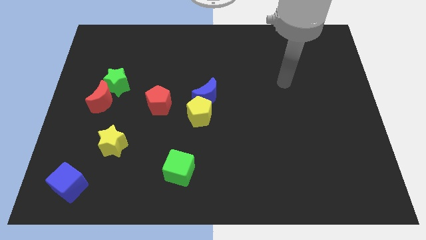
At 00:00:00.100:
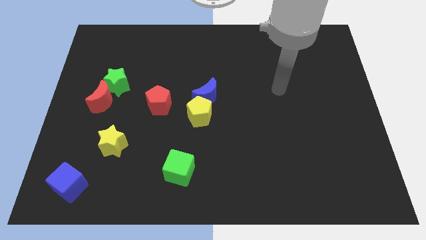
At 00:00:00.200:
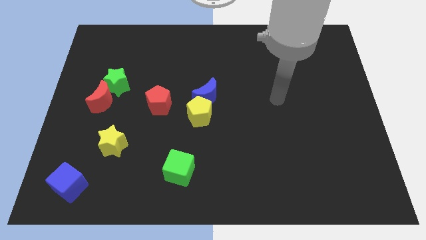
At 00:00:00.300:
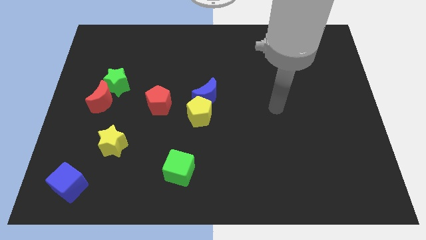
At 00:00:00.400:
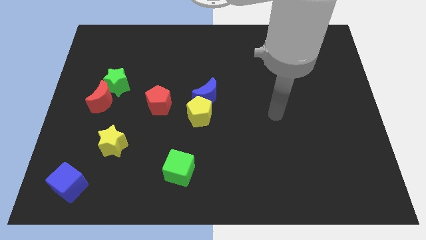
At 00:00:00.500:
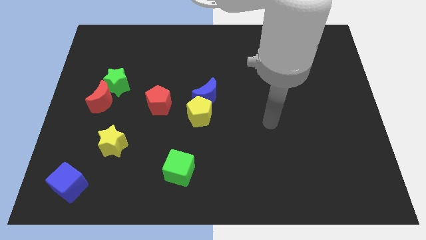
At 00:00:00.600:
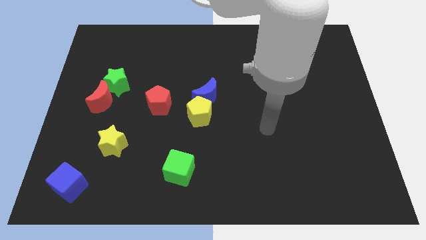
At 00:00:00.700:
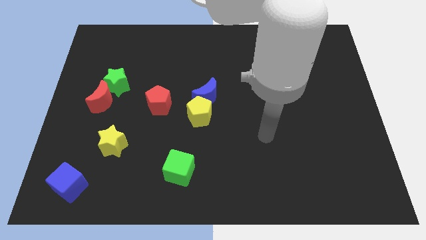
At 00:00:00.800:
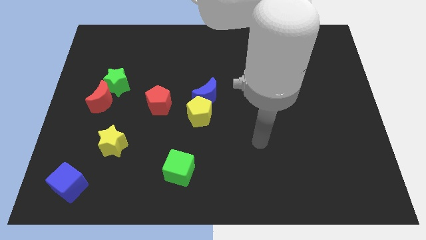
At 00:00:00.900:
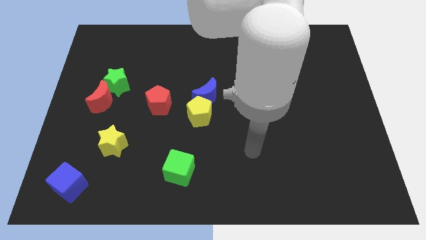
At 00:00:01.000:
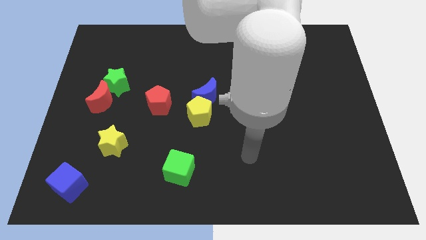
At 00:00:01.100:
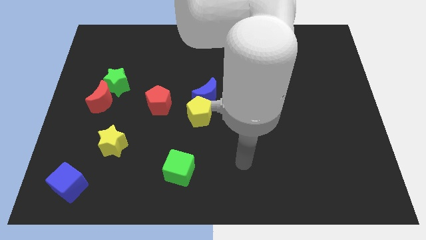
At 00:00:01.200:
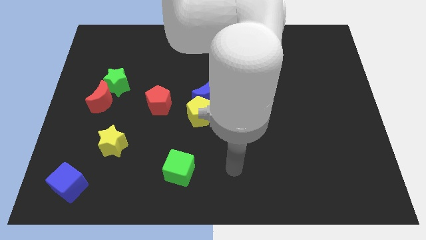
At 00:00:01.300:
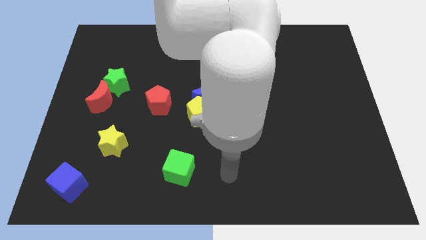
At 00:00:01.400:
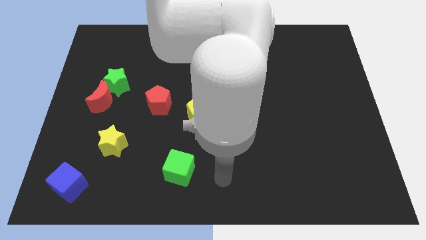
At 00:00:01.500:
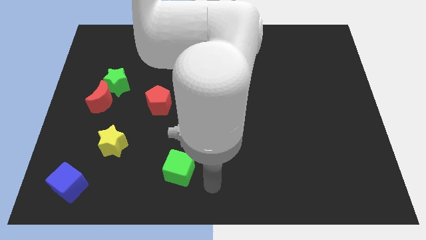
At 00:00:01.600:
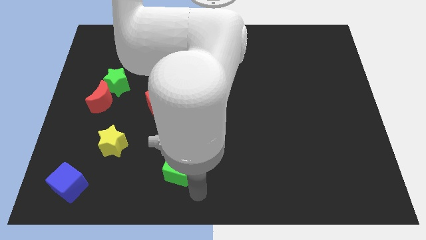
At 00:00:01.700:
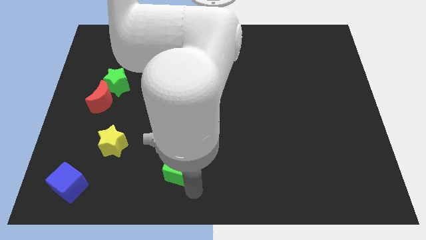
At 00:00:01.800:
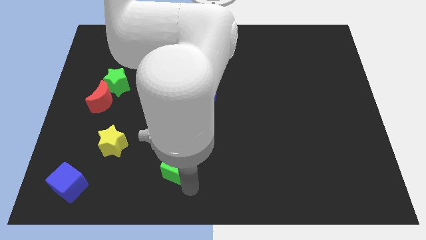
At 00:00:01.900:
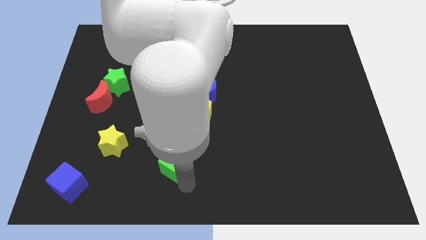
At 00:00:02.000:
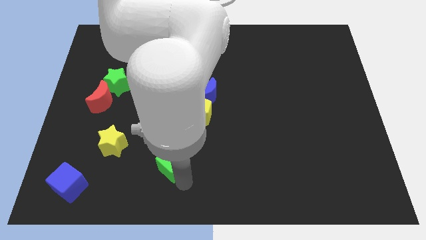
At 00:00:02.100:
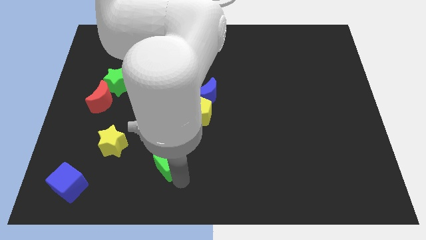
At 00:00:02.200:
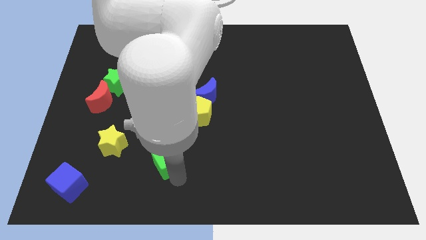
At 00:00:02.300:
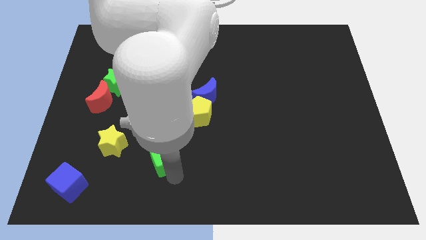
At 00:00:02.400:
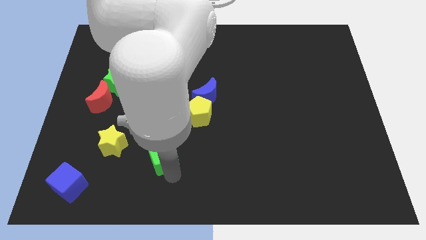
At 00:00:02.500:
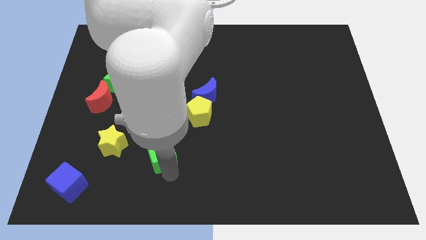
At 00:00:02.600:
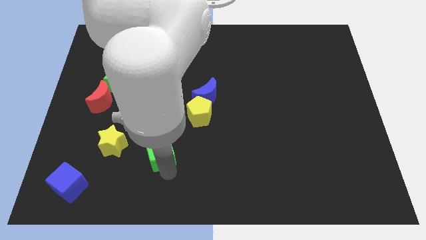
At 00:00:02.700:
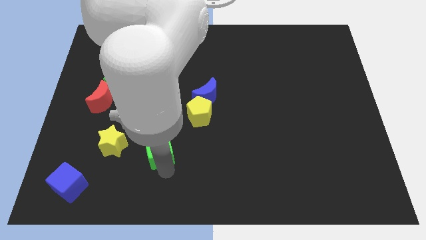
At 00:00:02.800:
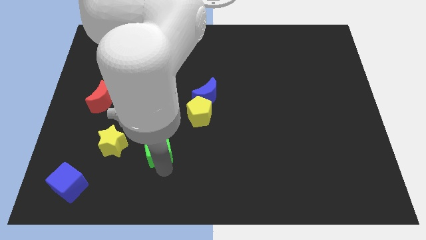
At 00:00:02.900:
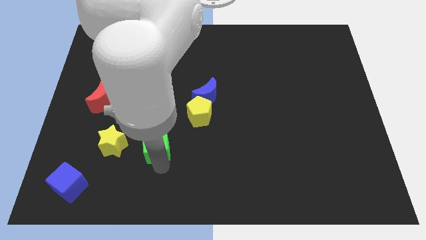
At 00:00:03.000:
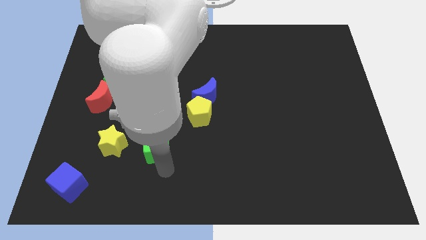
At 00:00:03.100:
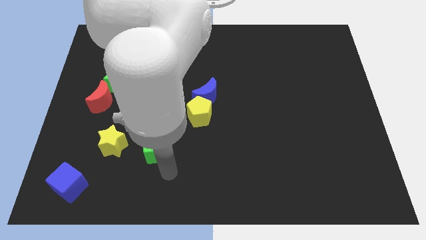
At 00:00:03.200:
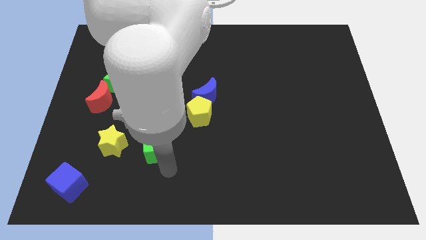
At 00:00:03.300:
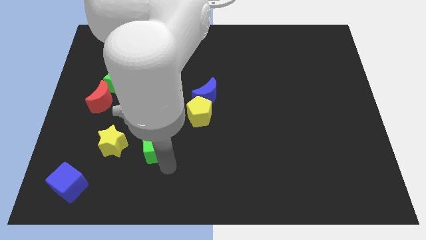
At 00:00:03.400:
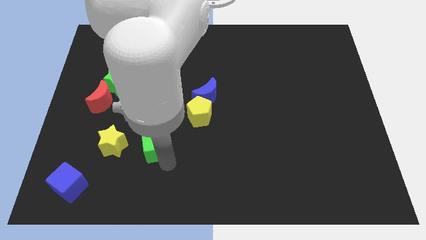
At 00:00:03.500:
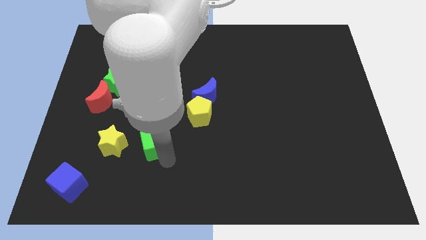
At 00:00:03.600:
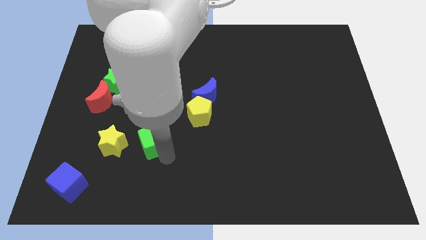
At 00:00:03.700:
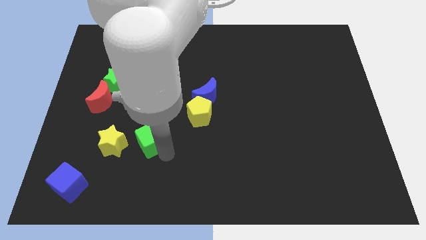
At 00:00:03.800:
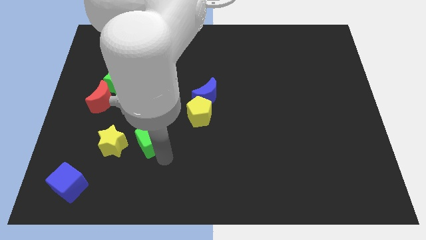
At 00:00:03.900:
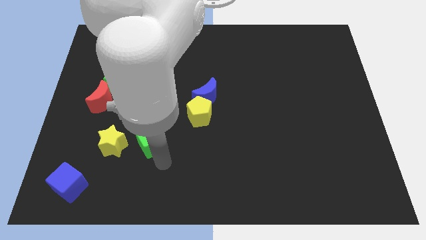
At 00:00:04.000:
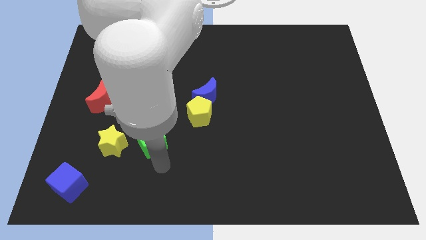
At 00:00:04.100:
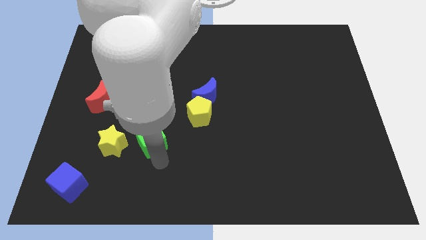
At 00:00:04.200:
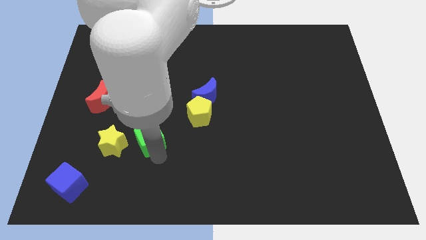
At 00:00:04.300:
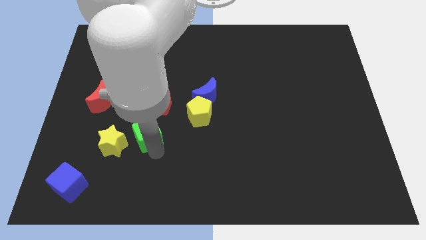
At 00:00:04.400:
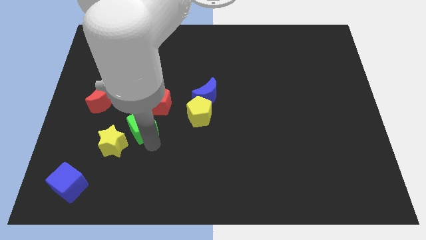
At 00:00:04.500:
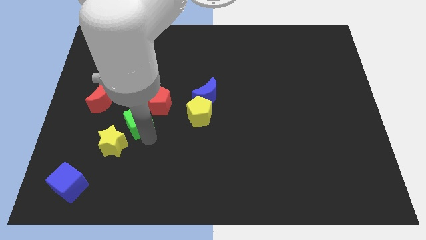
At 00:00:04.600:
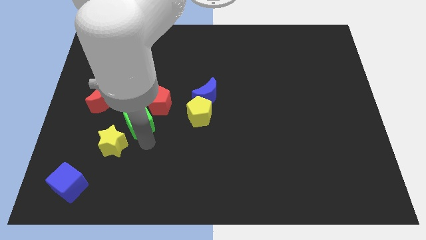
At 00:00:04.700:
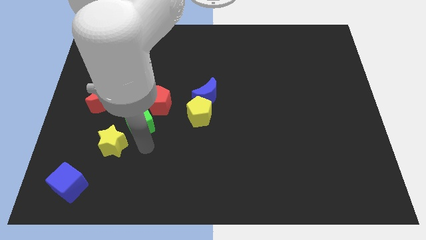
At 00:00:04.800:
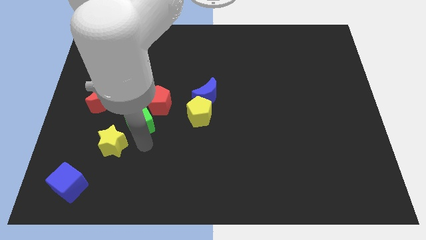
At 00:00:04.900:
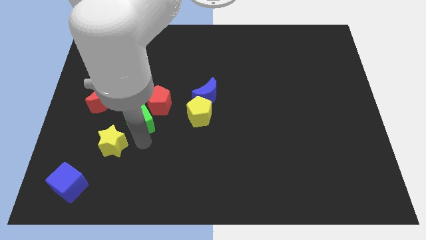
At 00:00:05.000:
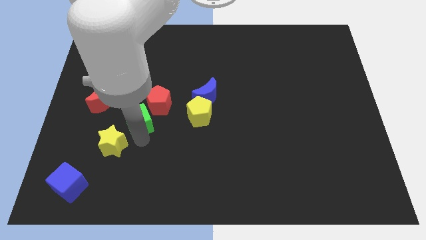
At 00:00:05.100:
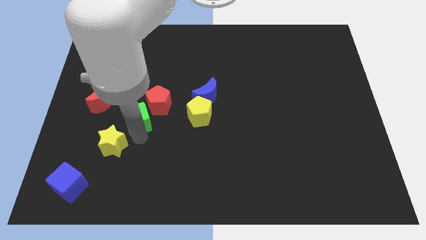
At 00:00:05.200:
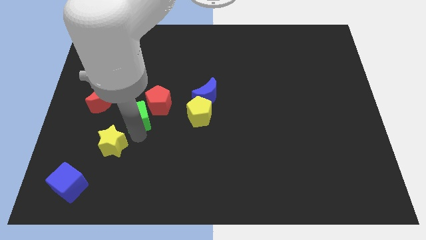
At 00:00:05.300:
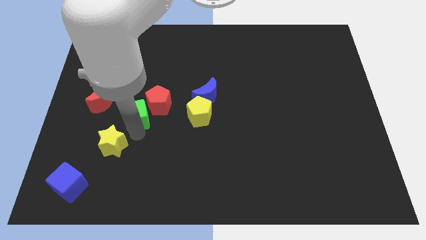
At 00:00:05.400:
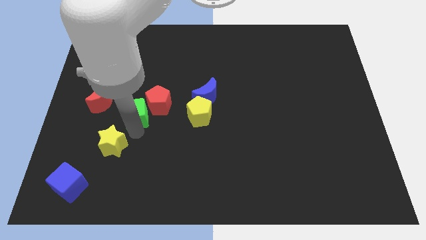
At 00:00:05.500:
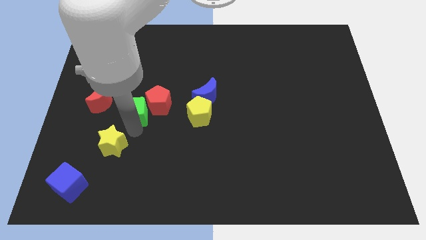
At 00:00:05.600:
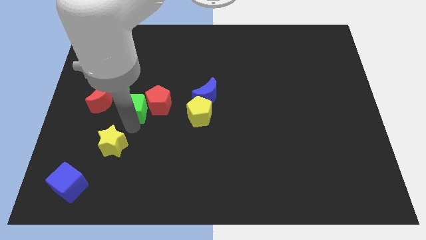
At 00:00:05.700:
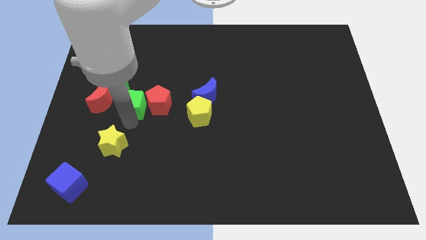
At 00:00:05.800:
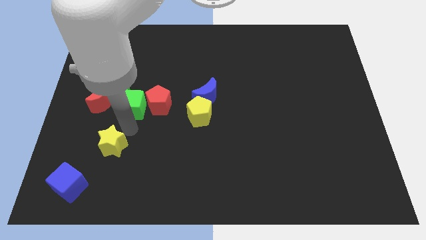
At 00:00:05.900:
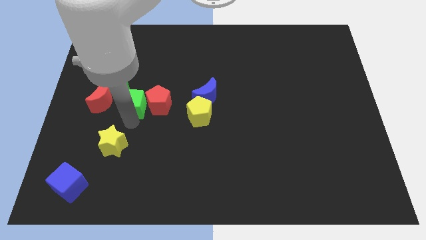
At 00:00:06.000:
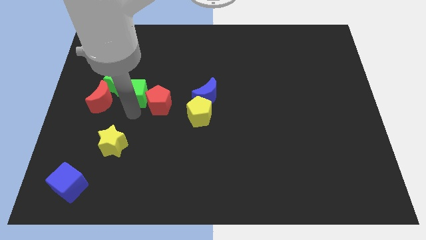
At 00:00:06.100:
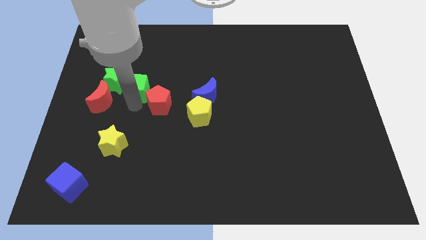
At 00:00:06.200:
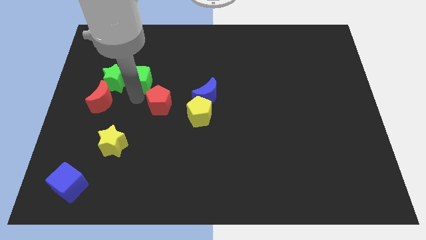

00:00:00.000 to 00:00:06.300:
move the green cube to the top right of the green star

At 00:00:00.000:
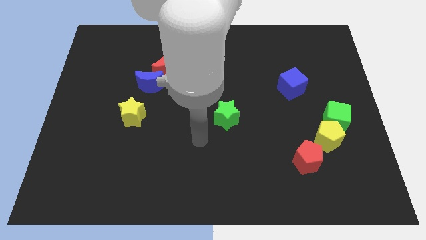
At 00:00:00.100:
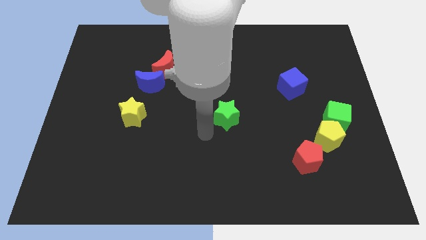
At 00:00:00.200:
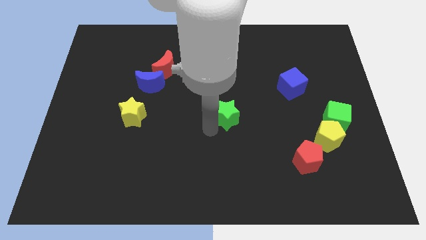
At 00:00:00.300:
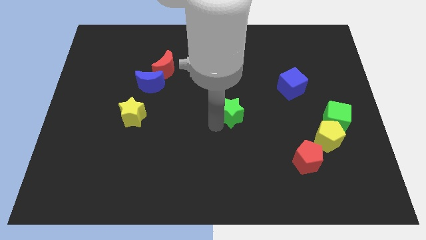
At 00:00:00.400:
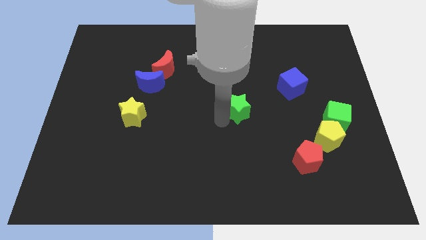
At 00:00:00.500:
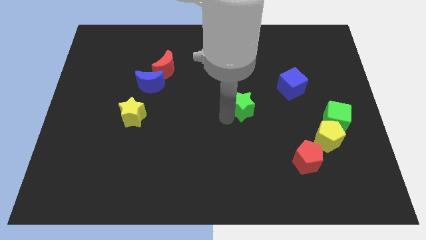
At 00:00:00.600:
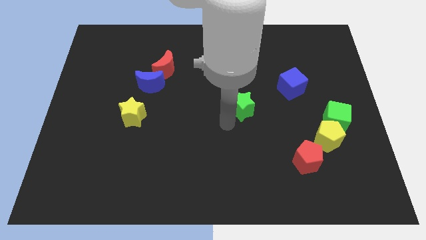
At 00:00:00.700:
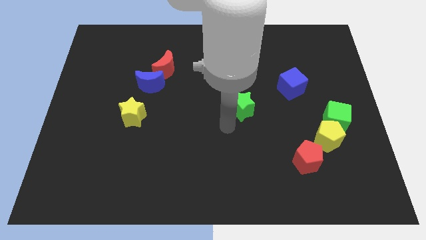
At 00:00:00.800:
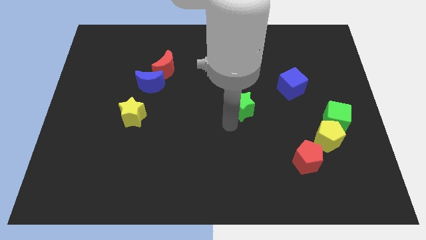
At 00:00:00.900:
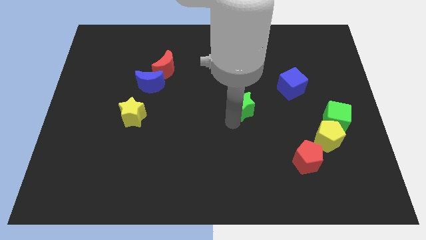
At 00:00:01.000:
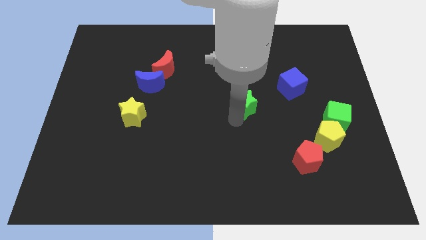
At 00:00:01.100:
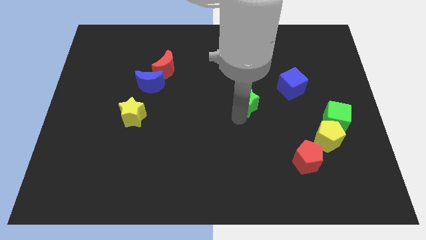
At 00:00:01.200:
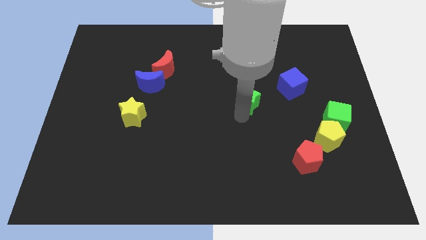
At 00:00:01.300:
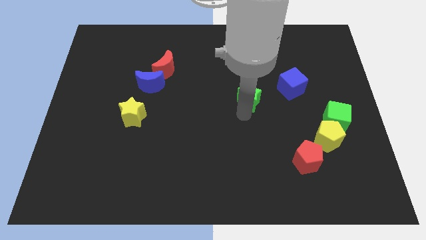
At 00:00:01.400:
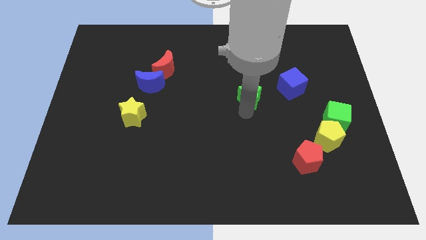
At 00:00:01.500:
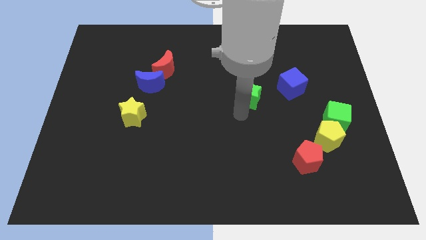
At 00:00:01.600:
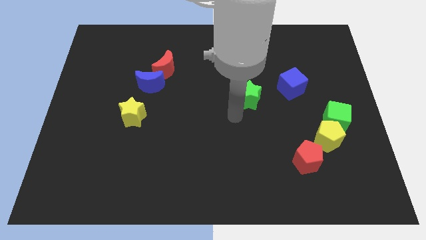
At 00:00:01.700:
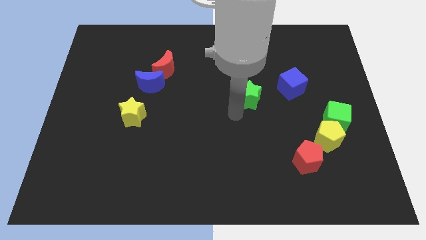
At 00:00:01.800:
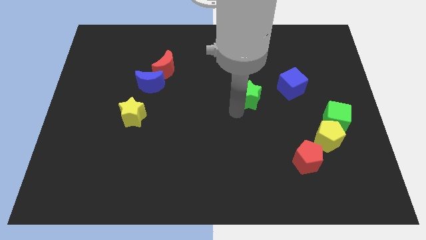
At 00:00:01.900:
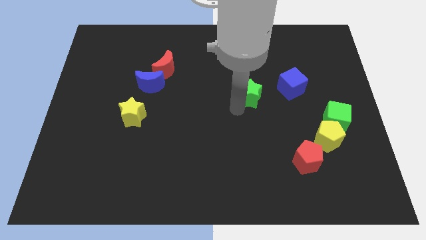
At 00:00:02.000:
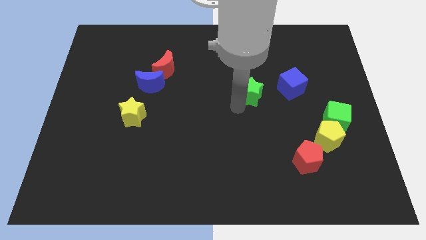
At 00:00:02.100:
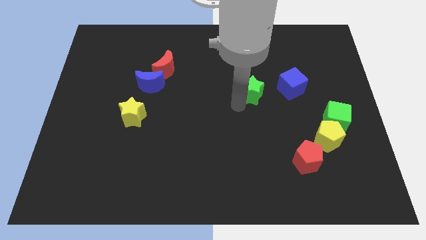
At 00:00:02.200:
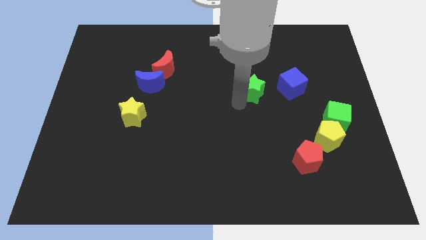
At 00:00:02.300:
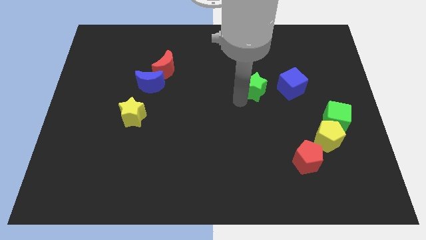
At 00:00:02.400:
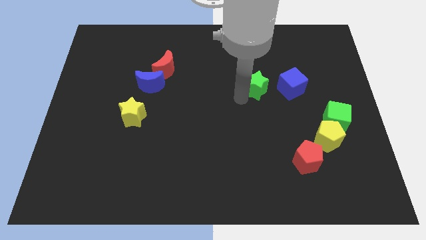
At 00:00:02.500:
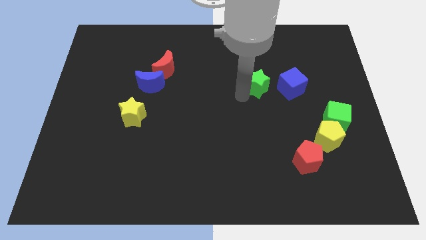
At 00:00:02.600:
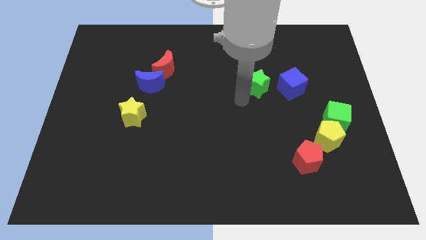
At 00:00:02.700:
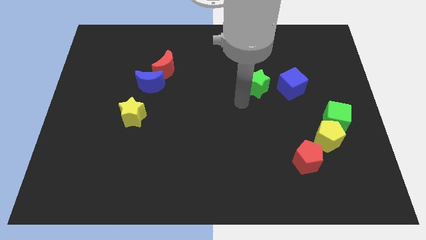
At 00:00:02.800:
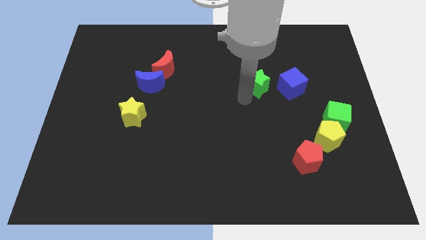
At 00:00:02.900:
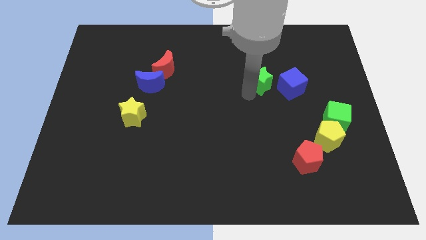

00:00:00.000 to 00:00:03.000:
move the green star to the top left of the blue cube
